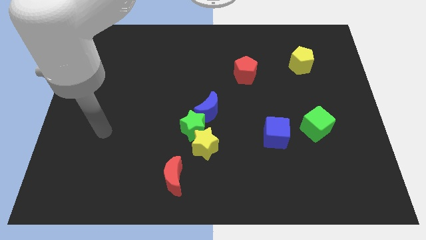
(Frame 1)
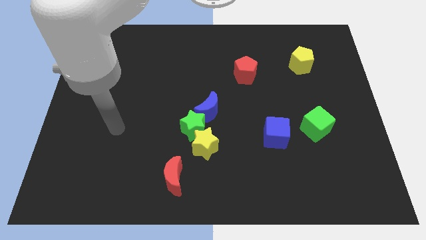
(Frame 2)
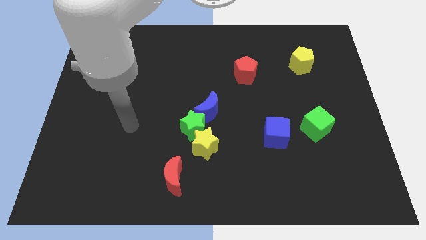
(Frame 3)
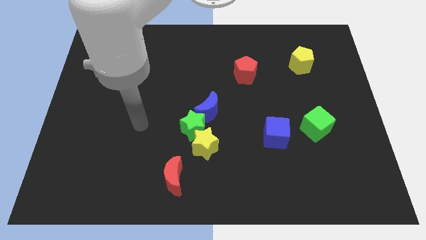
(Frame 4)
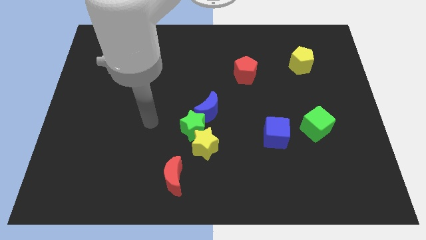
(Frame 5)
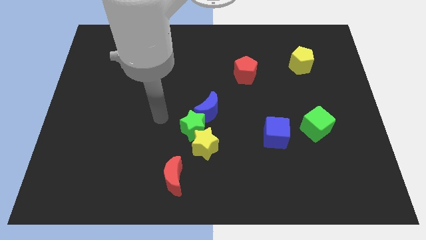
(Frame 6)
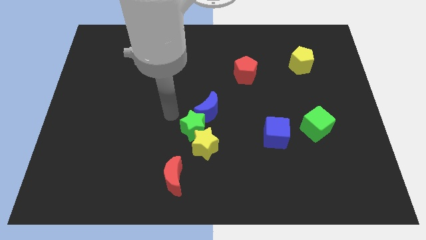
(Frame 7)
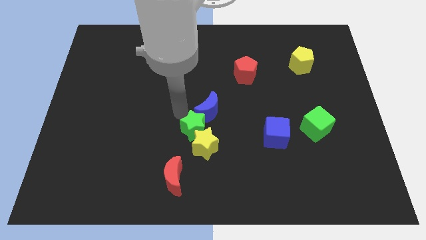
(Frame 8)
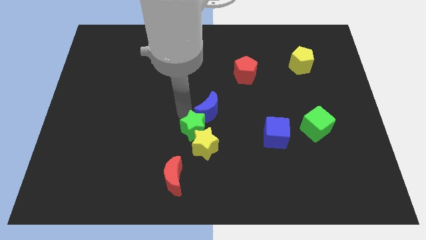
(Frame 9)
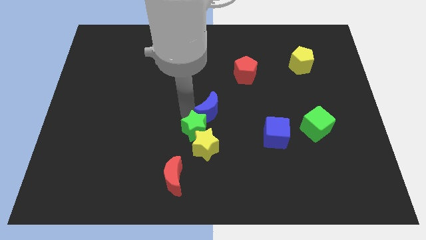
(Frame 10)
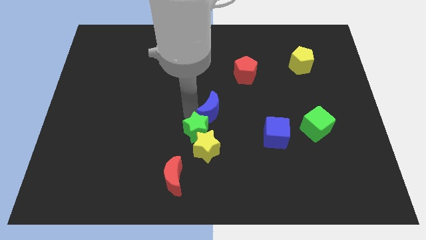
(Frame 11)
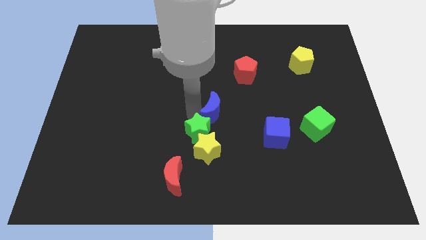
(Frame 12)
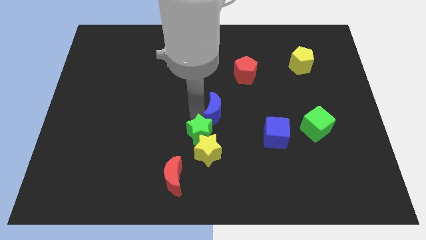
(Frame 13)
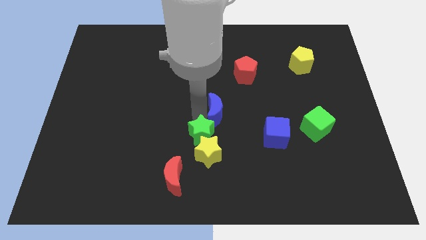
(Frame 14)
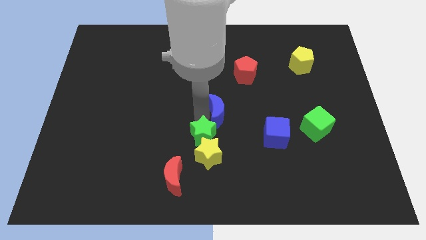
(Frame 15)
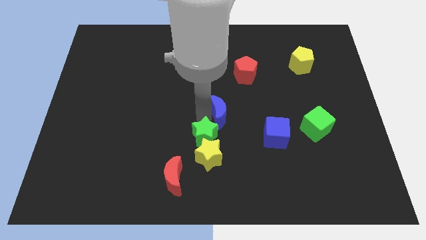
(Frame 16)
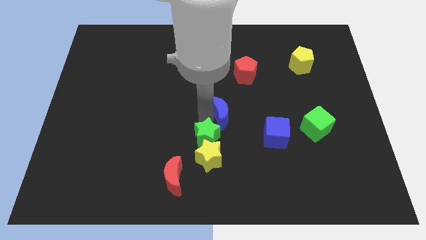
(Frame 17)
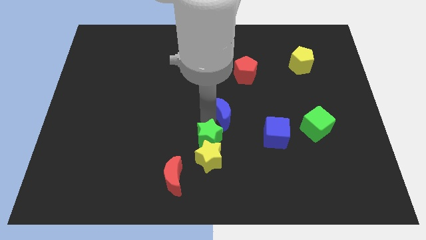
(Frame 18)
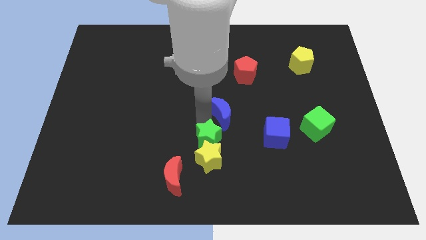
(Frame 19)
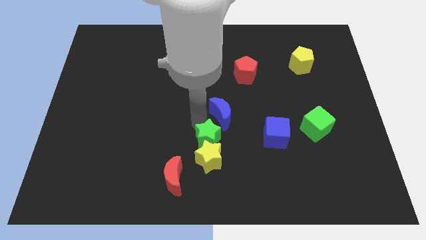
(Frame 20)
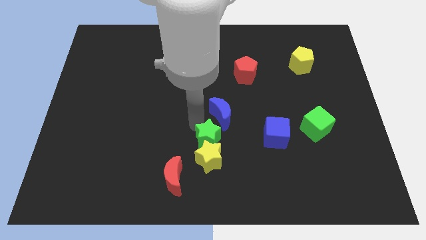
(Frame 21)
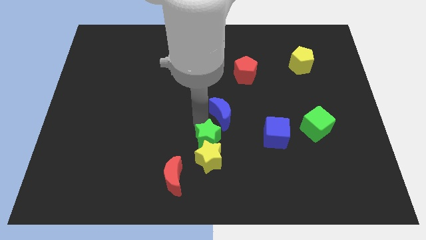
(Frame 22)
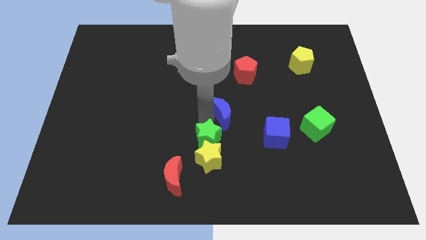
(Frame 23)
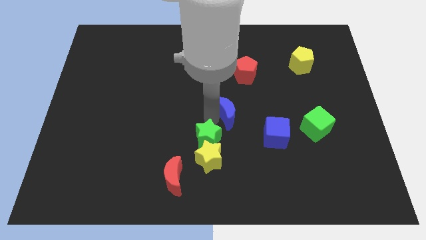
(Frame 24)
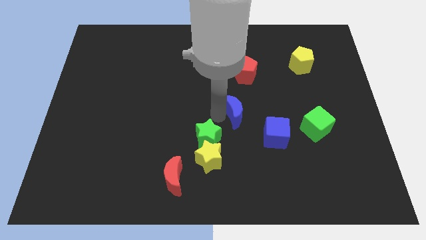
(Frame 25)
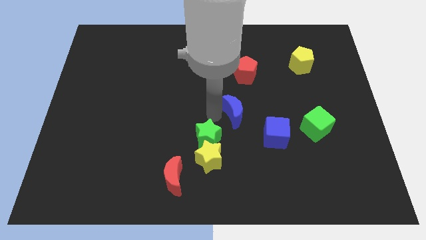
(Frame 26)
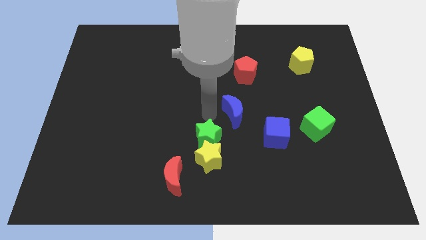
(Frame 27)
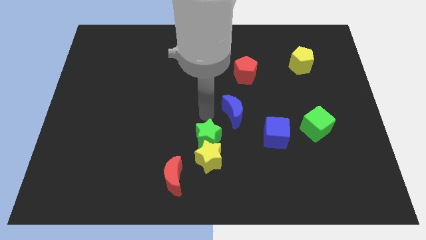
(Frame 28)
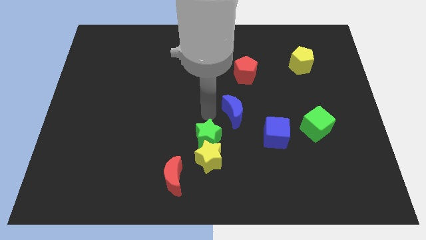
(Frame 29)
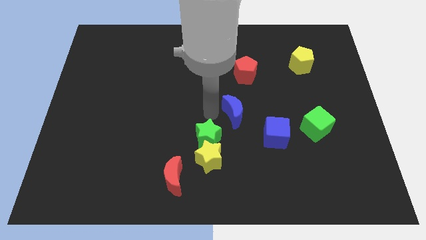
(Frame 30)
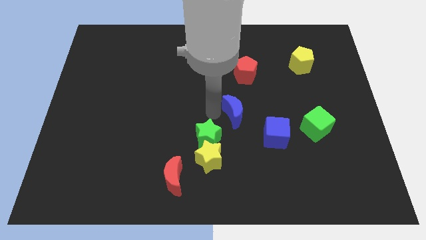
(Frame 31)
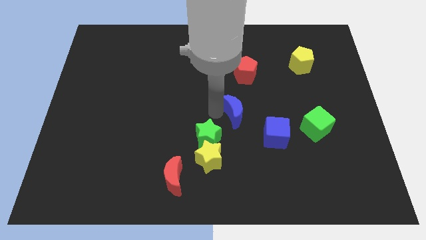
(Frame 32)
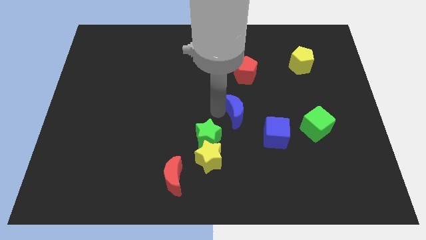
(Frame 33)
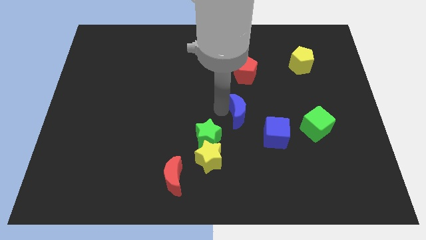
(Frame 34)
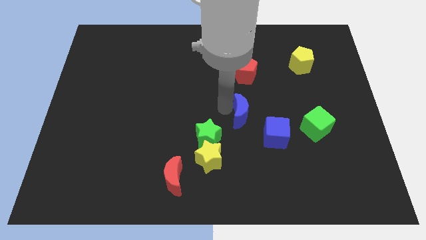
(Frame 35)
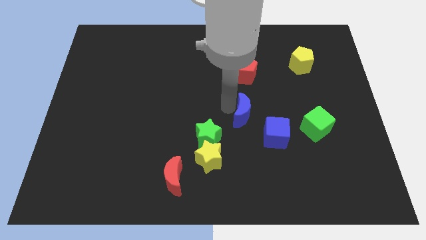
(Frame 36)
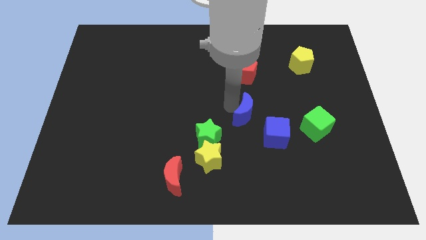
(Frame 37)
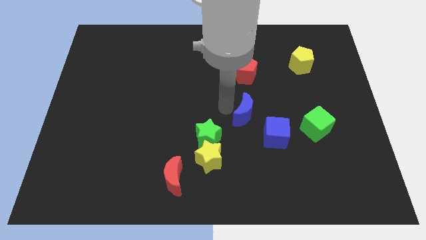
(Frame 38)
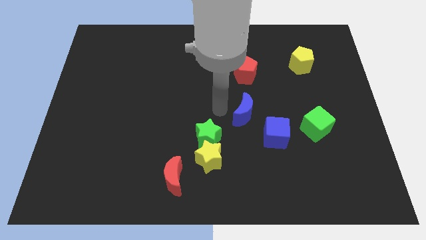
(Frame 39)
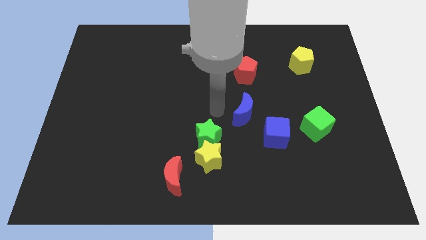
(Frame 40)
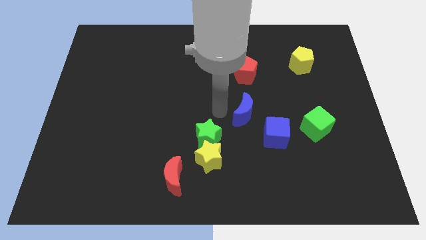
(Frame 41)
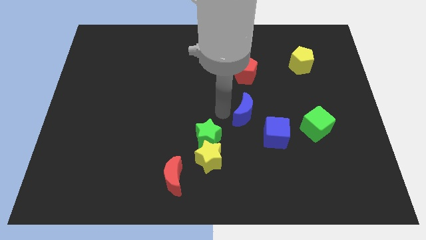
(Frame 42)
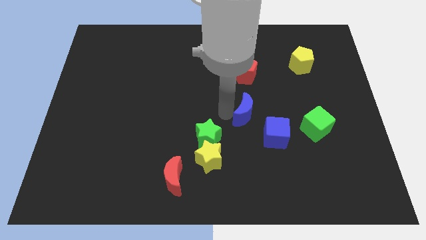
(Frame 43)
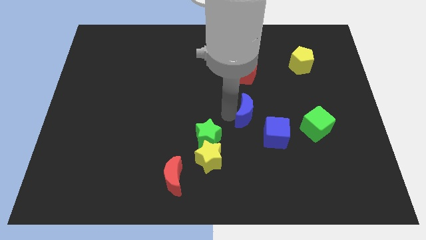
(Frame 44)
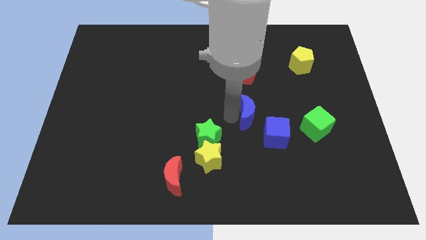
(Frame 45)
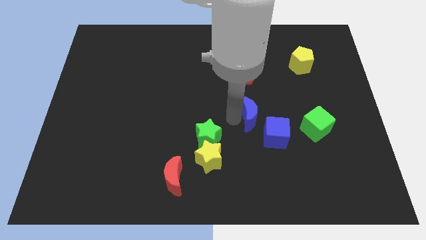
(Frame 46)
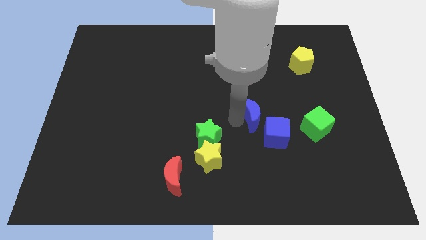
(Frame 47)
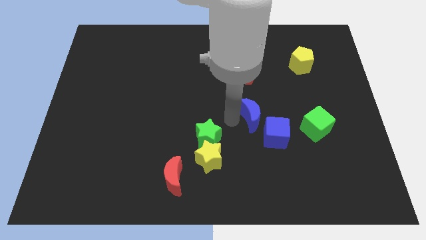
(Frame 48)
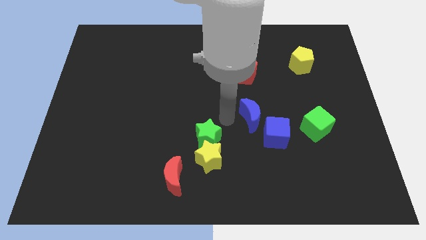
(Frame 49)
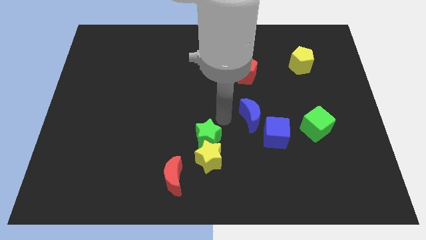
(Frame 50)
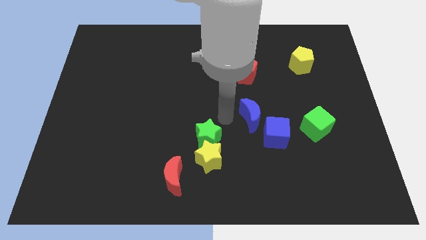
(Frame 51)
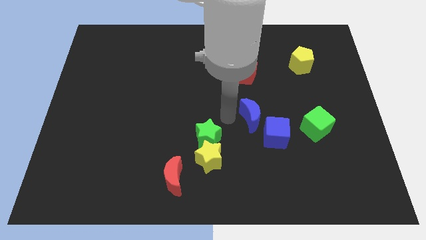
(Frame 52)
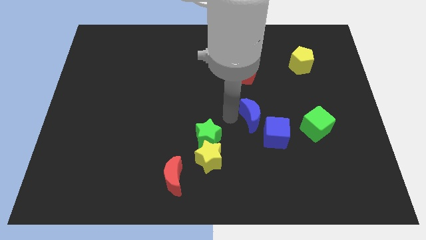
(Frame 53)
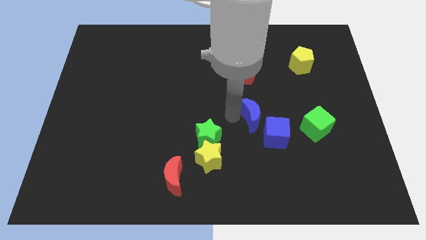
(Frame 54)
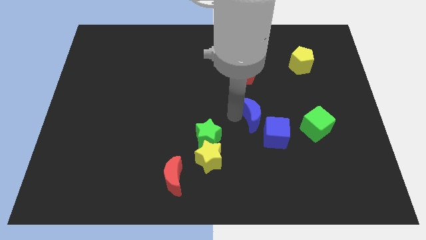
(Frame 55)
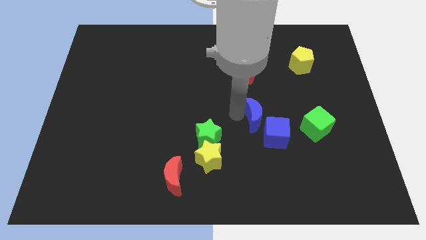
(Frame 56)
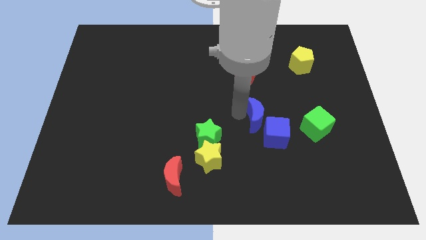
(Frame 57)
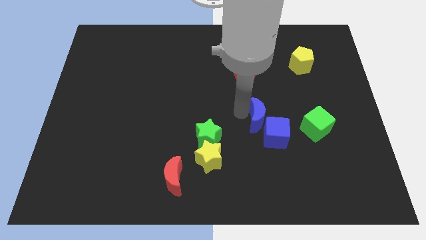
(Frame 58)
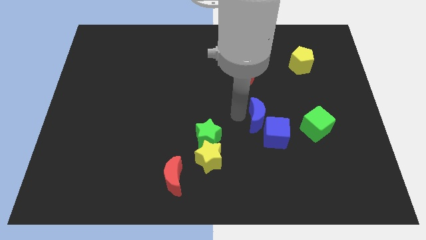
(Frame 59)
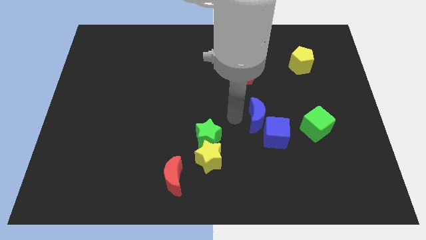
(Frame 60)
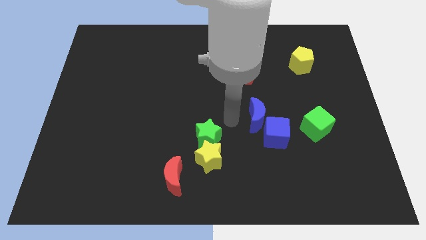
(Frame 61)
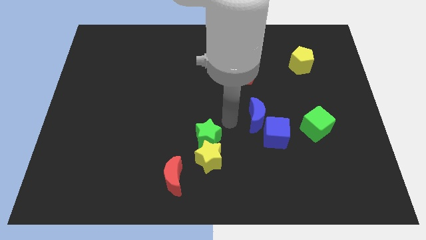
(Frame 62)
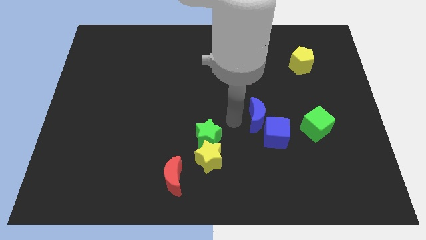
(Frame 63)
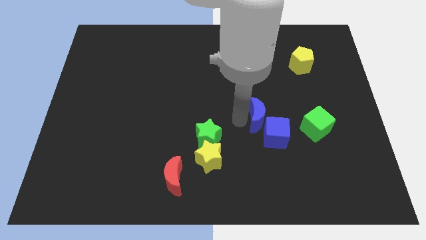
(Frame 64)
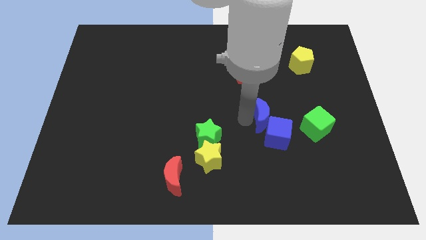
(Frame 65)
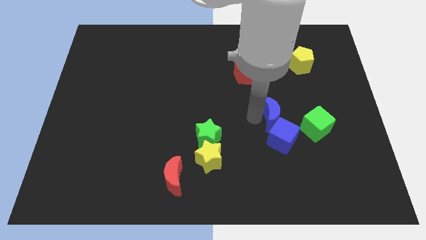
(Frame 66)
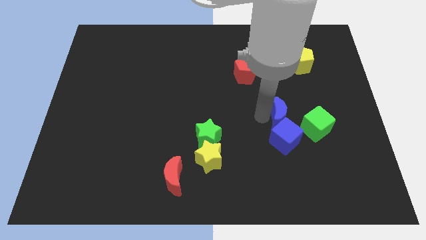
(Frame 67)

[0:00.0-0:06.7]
push the blue moon diagonally up and to the right of the blue cube
